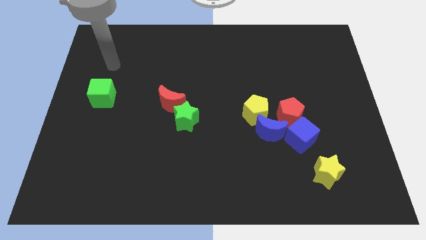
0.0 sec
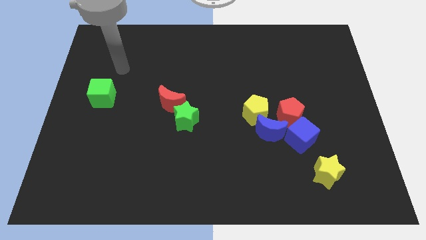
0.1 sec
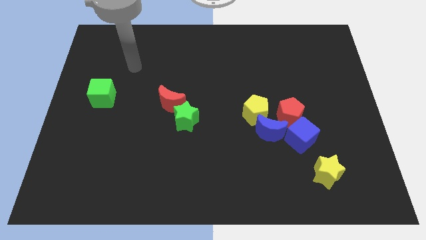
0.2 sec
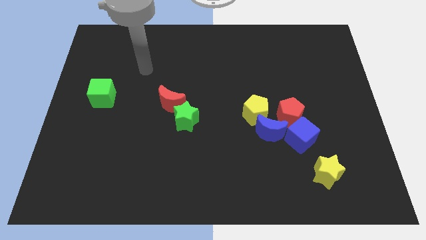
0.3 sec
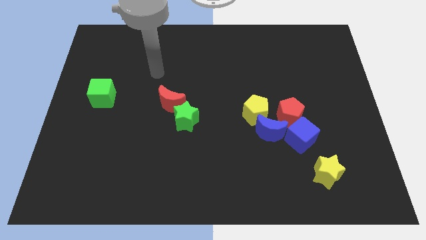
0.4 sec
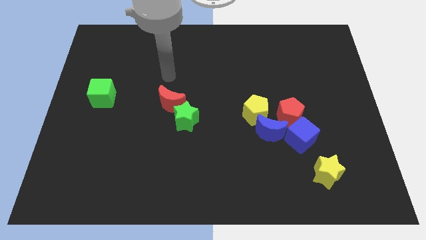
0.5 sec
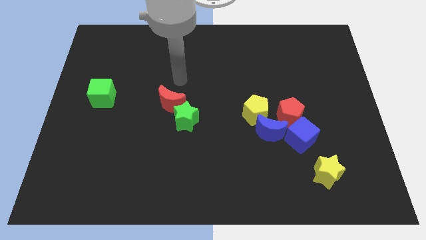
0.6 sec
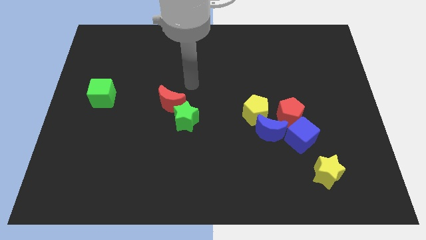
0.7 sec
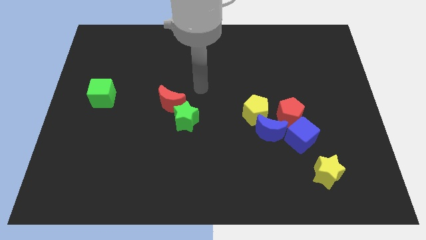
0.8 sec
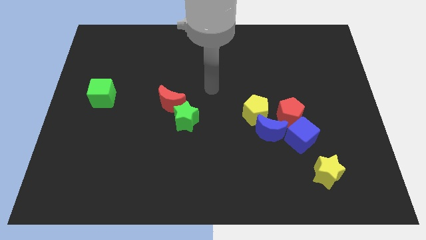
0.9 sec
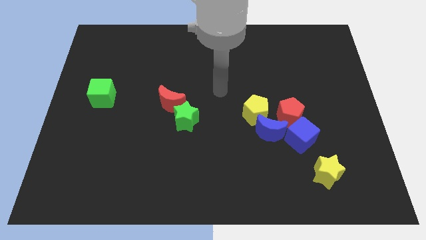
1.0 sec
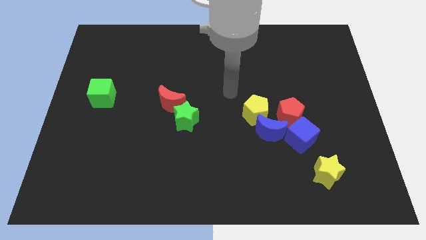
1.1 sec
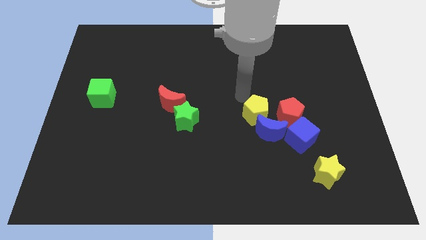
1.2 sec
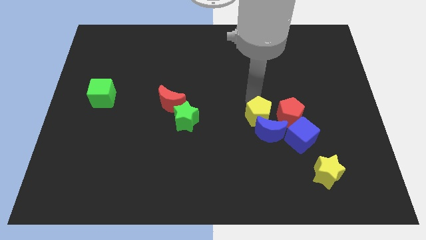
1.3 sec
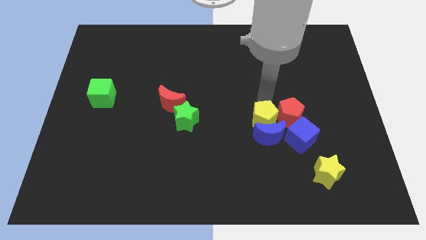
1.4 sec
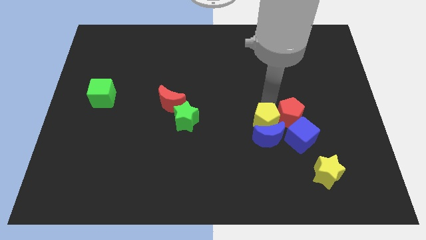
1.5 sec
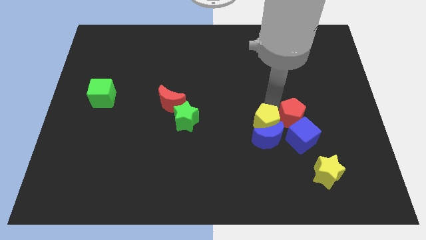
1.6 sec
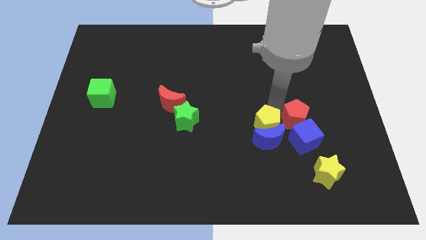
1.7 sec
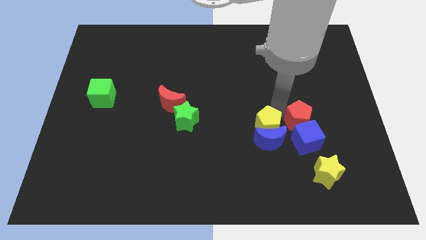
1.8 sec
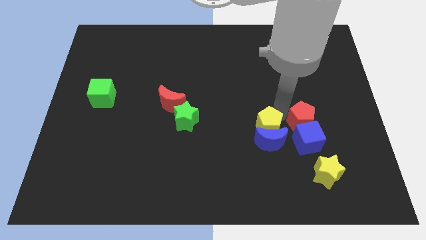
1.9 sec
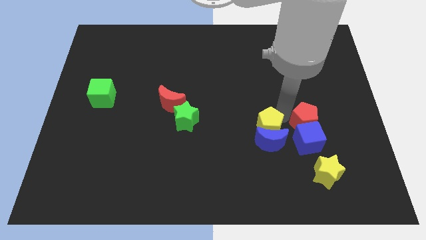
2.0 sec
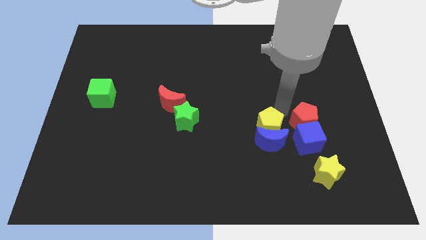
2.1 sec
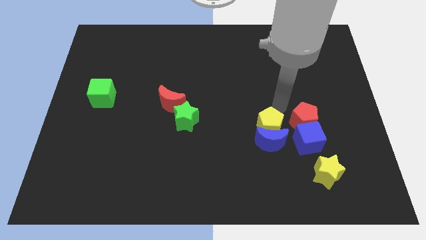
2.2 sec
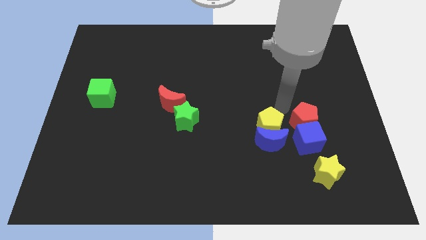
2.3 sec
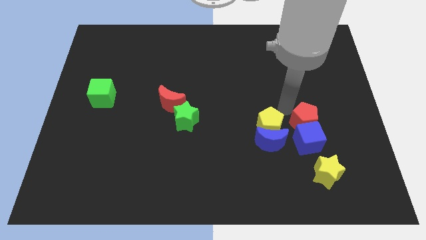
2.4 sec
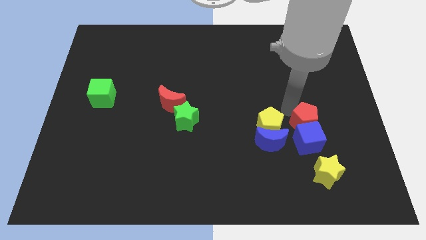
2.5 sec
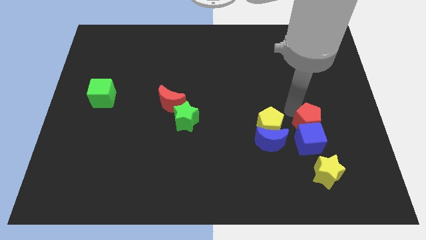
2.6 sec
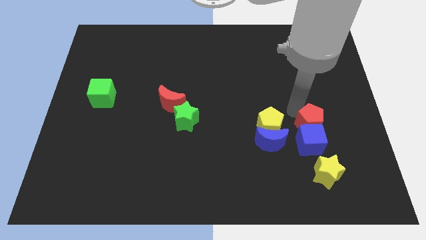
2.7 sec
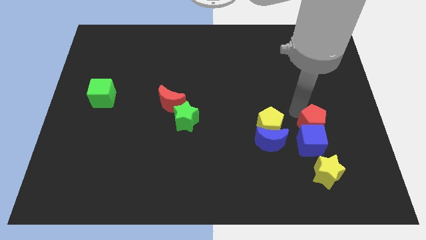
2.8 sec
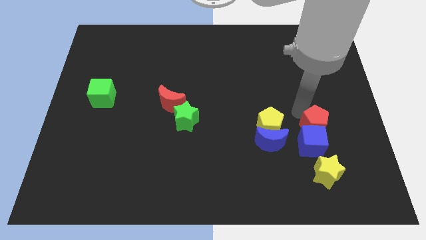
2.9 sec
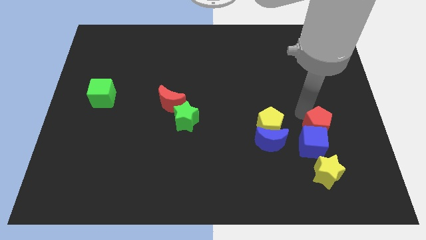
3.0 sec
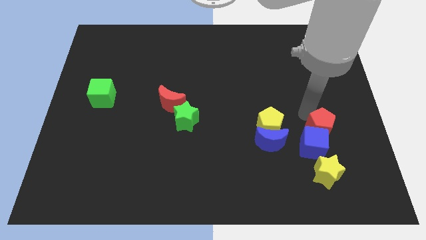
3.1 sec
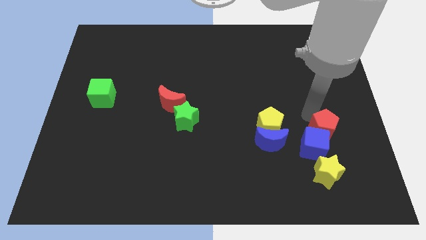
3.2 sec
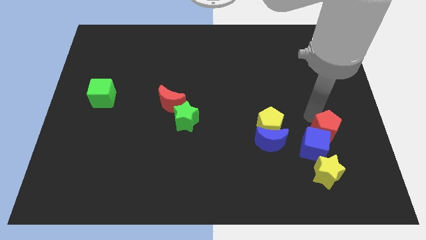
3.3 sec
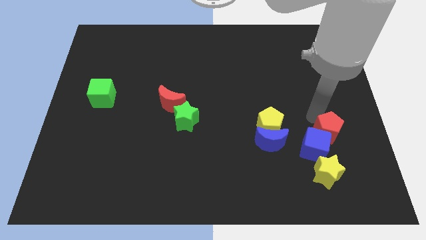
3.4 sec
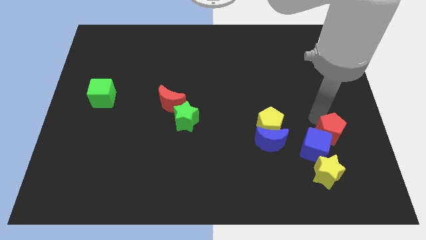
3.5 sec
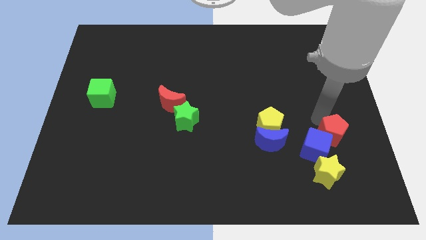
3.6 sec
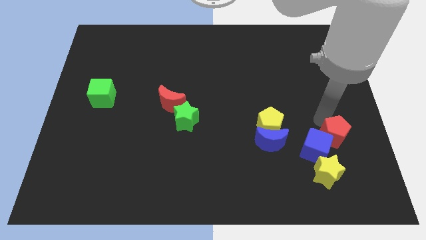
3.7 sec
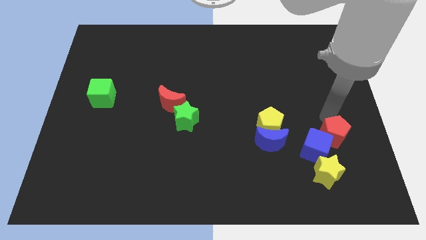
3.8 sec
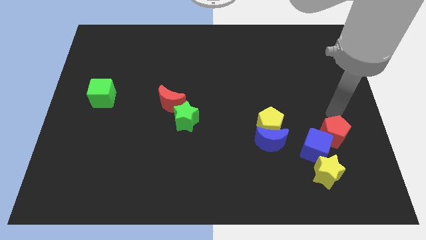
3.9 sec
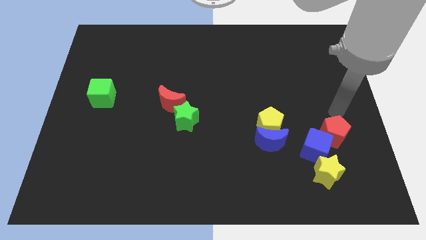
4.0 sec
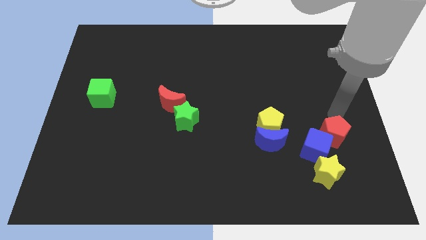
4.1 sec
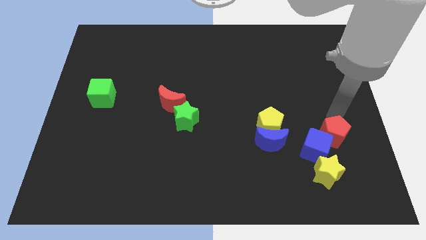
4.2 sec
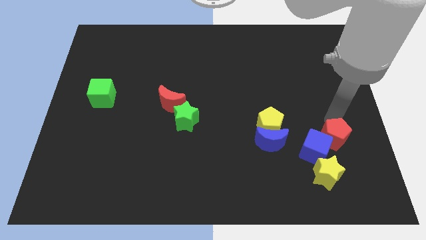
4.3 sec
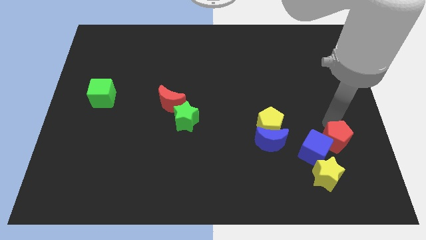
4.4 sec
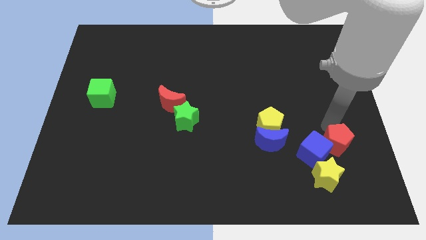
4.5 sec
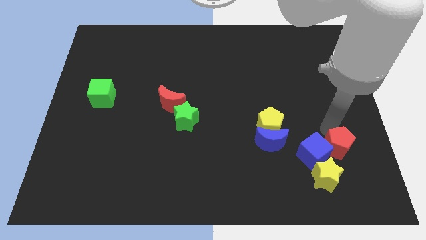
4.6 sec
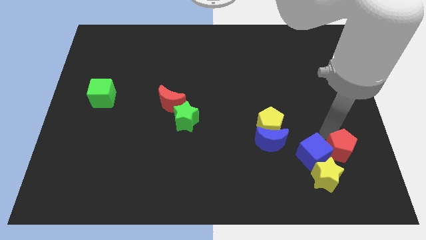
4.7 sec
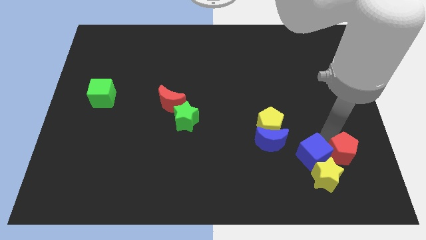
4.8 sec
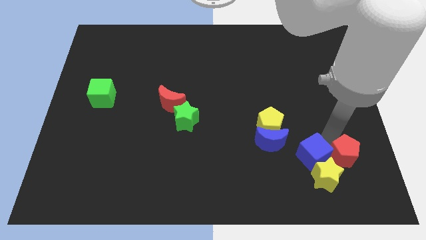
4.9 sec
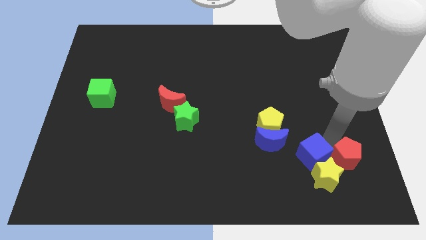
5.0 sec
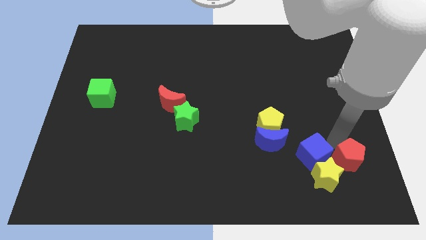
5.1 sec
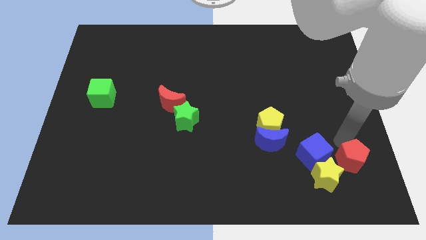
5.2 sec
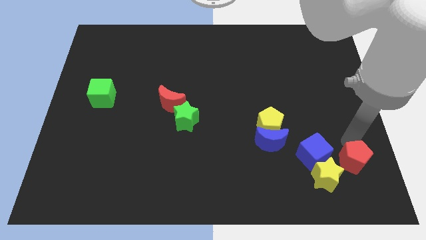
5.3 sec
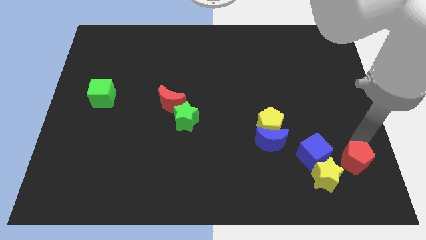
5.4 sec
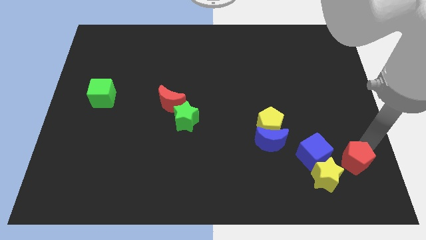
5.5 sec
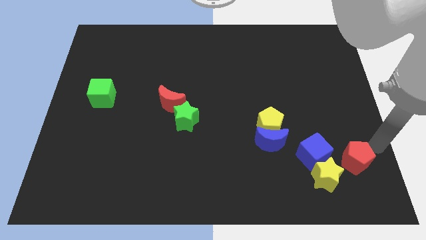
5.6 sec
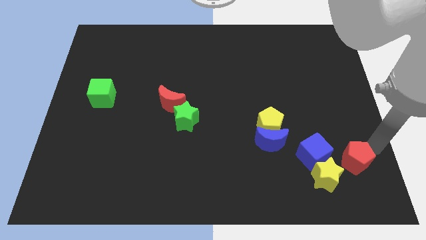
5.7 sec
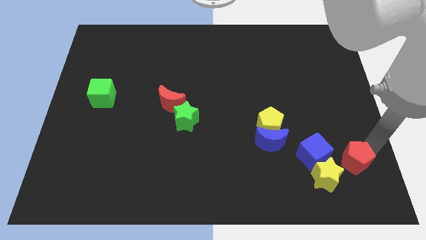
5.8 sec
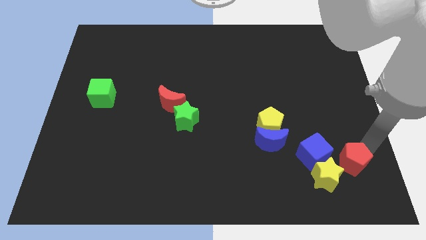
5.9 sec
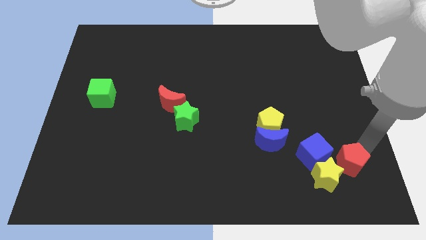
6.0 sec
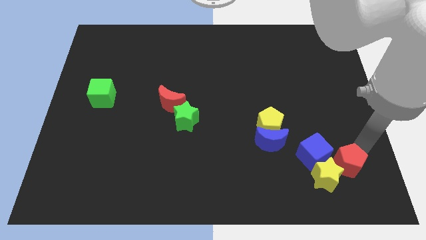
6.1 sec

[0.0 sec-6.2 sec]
put the red pentagon close to the yellow star
